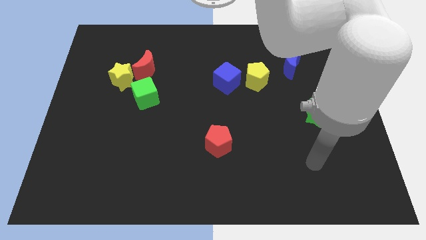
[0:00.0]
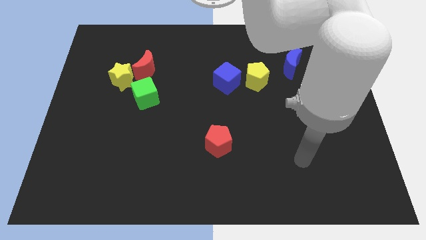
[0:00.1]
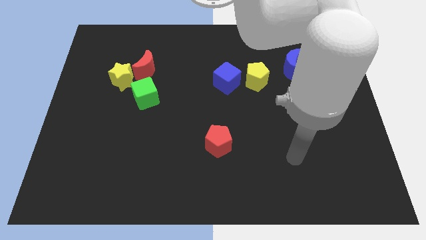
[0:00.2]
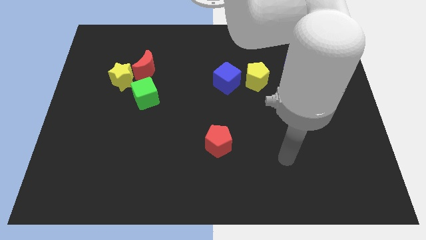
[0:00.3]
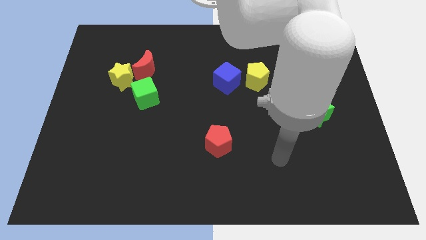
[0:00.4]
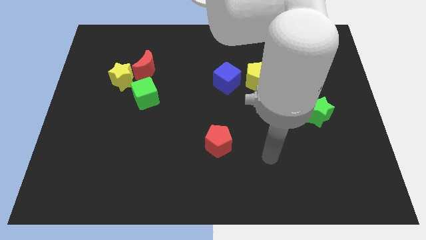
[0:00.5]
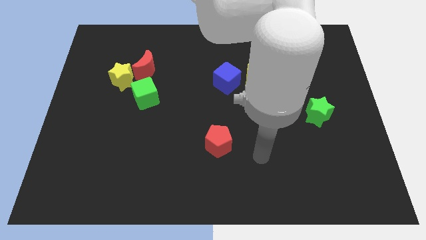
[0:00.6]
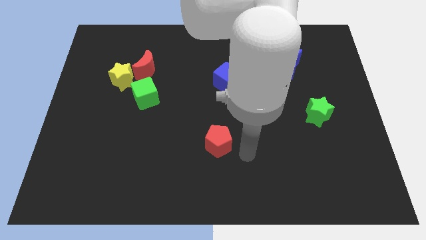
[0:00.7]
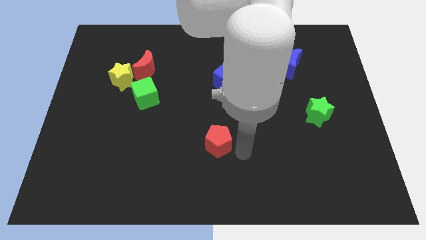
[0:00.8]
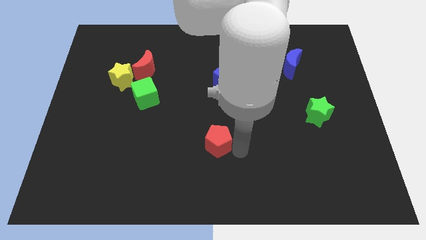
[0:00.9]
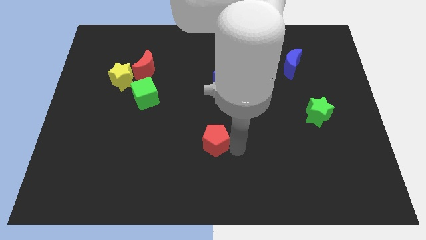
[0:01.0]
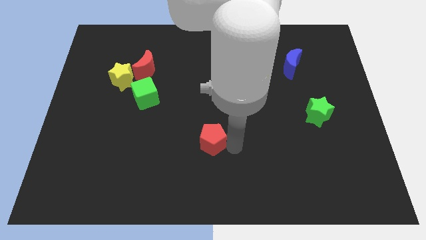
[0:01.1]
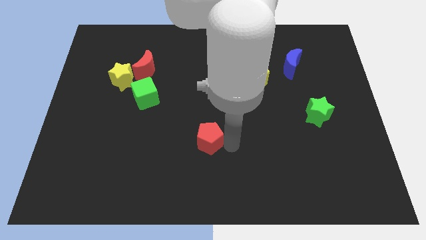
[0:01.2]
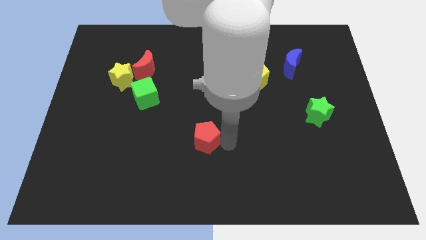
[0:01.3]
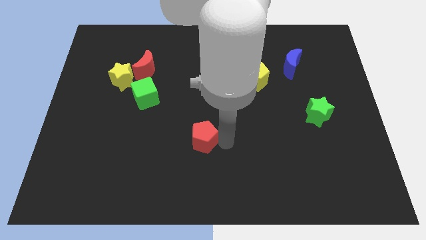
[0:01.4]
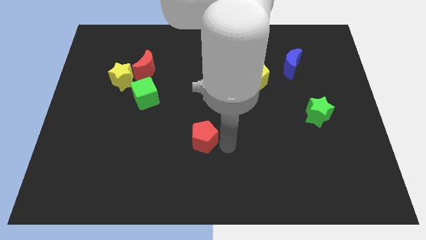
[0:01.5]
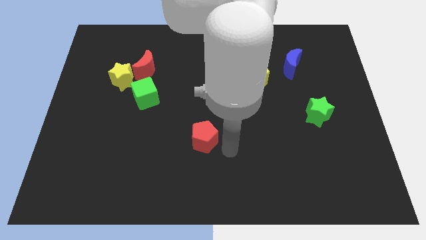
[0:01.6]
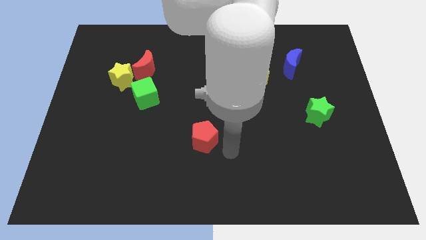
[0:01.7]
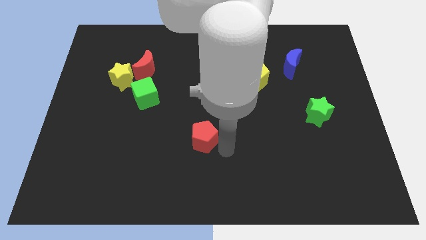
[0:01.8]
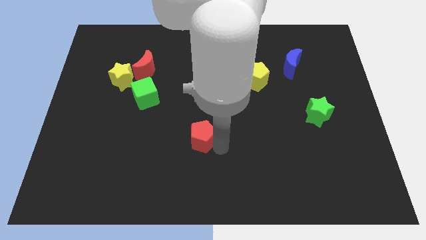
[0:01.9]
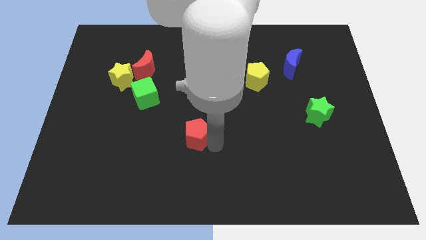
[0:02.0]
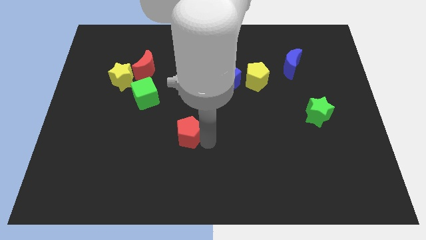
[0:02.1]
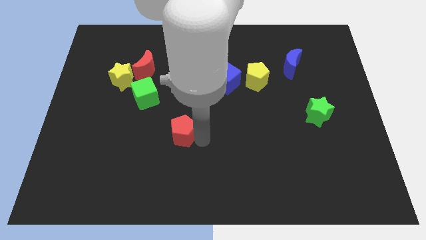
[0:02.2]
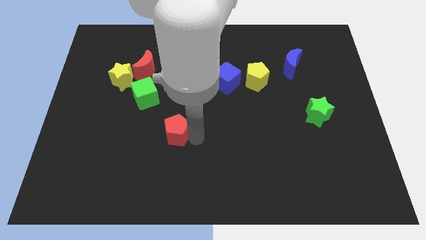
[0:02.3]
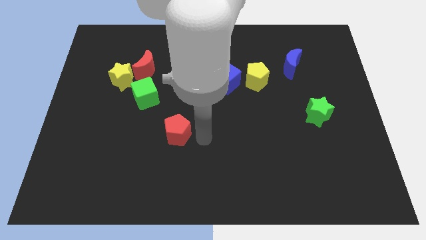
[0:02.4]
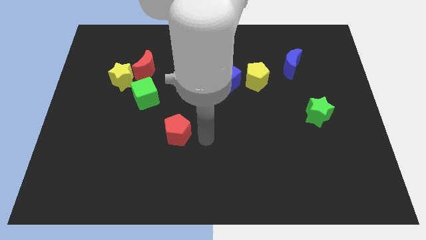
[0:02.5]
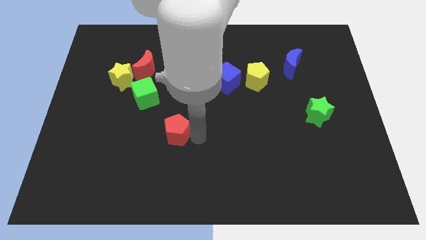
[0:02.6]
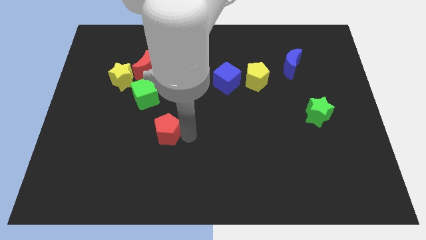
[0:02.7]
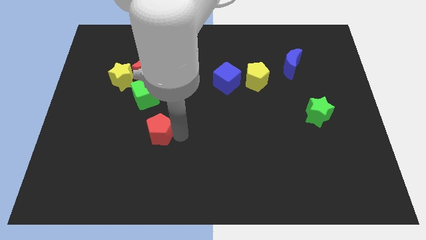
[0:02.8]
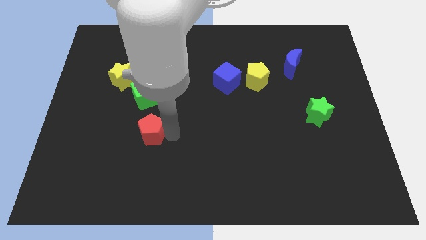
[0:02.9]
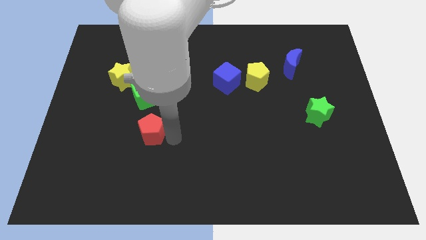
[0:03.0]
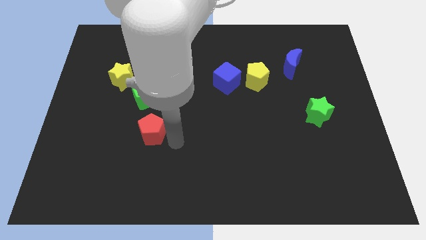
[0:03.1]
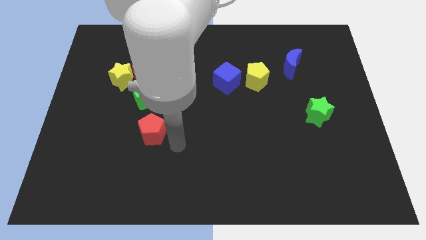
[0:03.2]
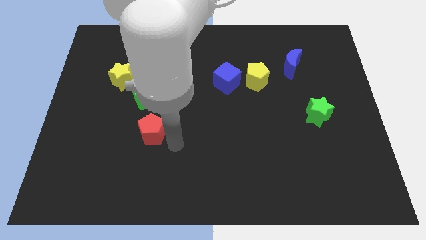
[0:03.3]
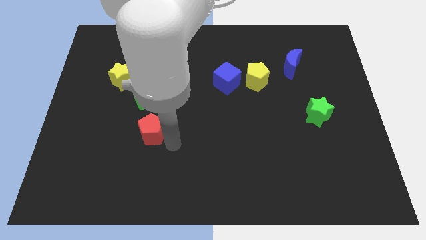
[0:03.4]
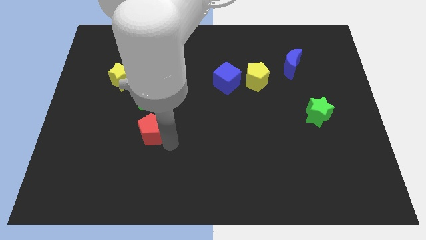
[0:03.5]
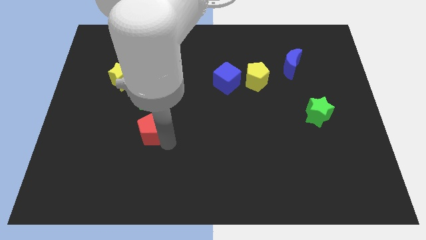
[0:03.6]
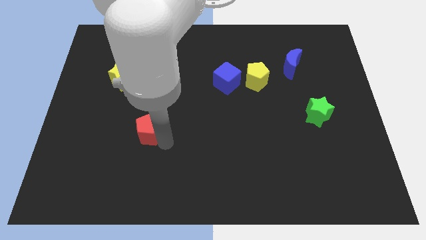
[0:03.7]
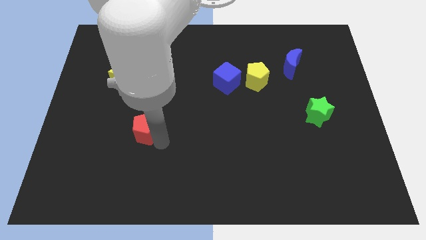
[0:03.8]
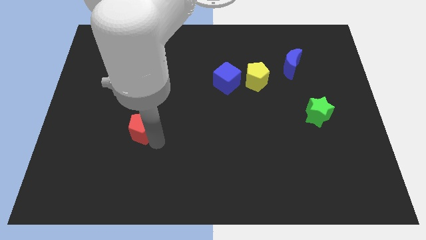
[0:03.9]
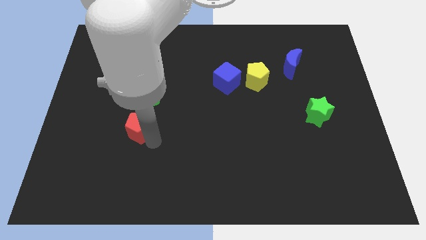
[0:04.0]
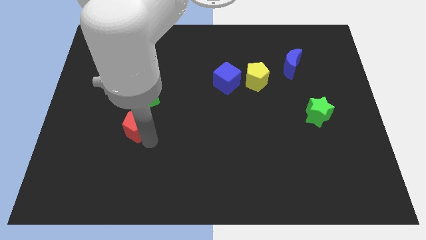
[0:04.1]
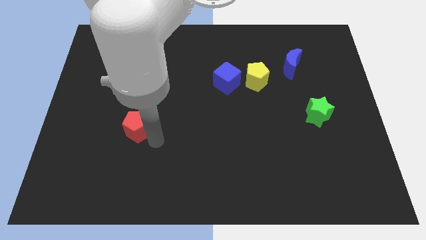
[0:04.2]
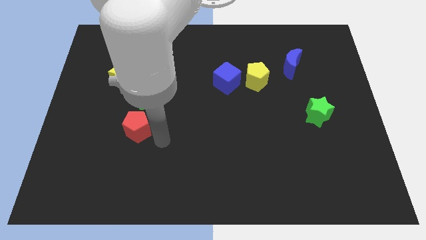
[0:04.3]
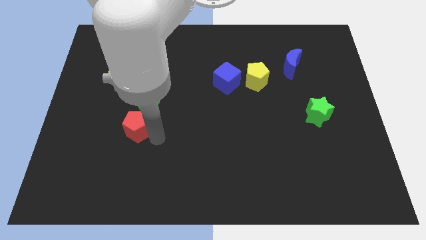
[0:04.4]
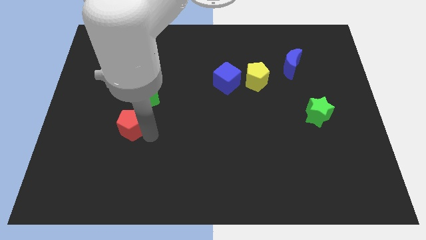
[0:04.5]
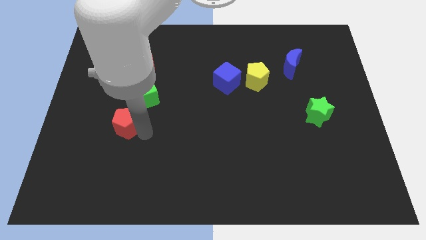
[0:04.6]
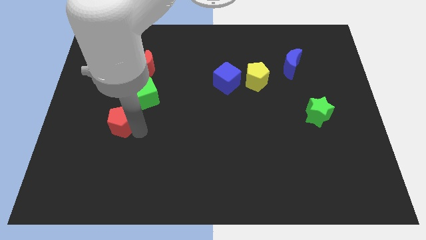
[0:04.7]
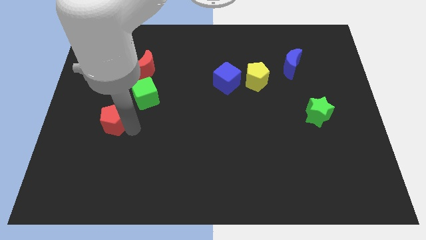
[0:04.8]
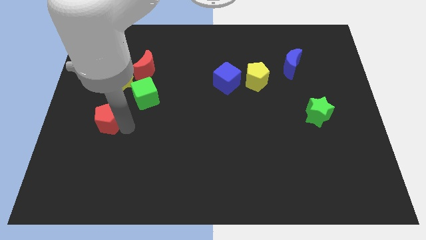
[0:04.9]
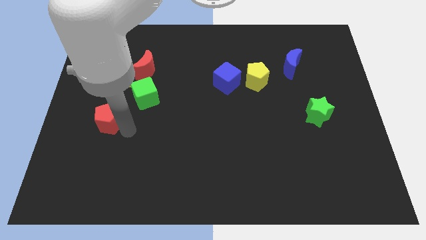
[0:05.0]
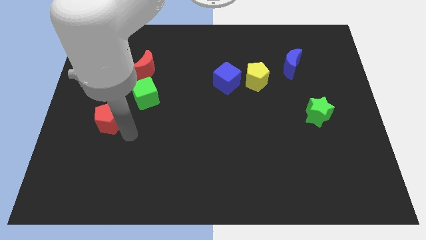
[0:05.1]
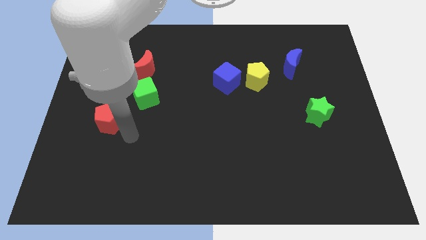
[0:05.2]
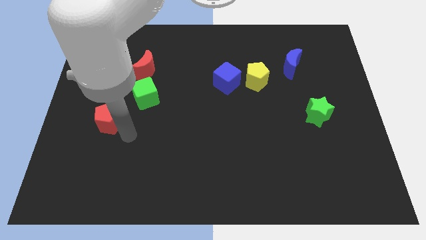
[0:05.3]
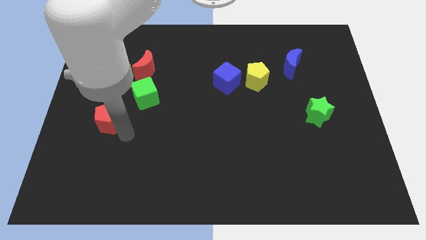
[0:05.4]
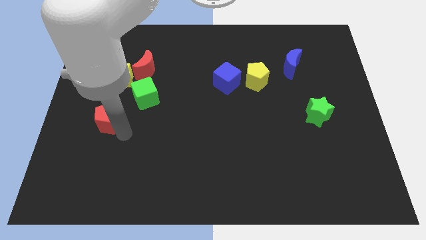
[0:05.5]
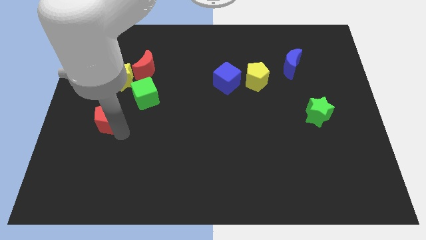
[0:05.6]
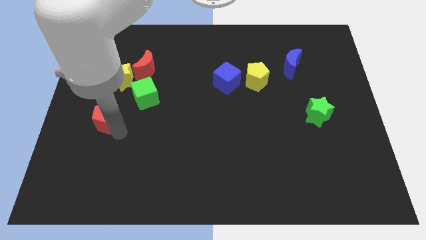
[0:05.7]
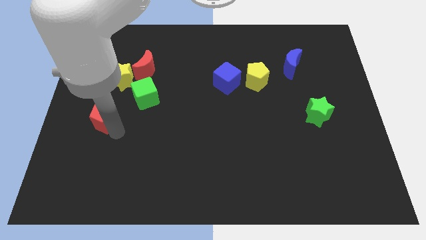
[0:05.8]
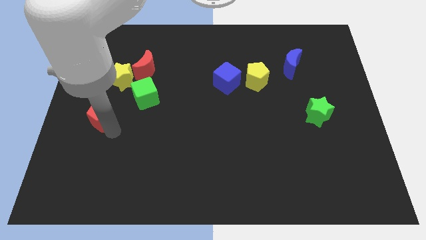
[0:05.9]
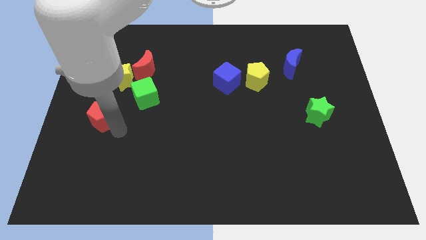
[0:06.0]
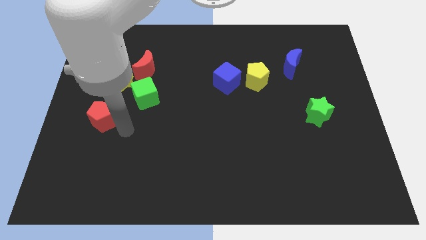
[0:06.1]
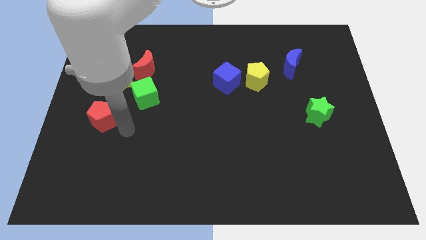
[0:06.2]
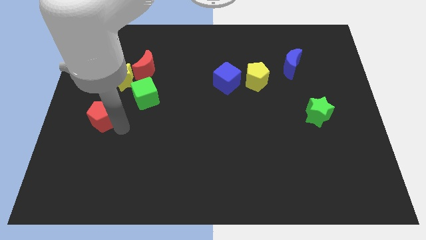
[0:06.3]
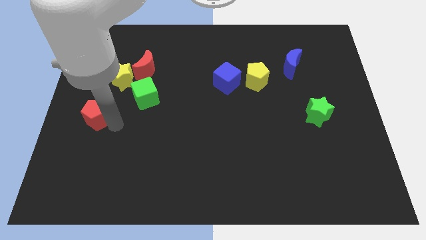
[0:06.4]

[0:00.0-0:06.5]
put the red pentagon to the left side of the board
